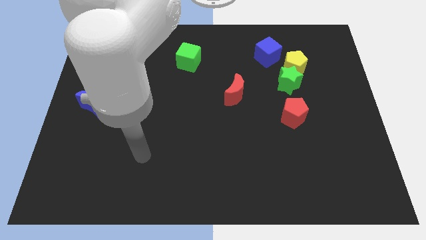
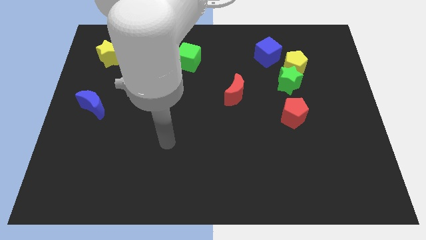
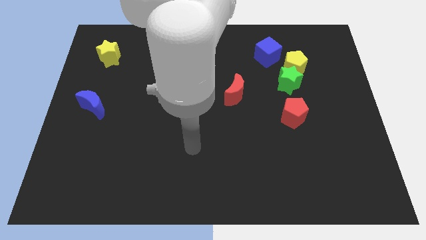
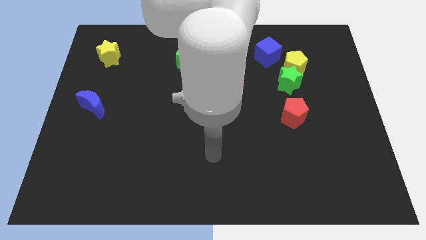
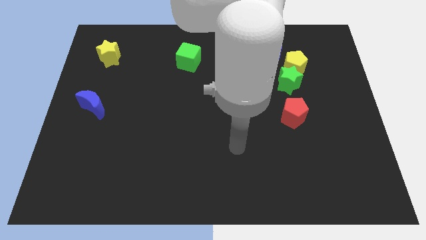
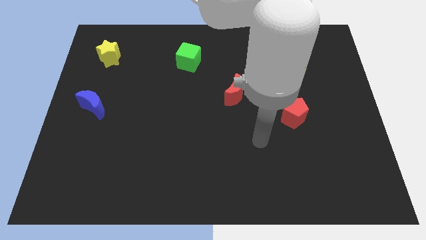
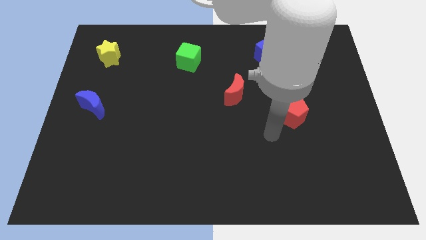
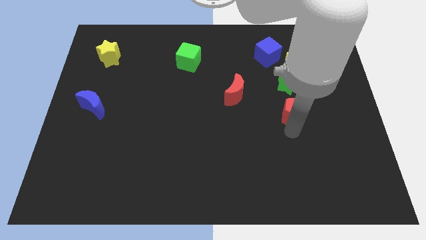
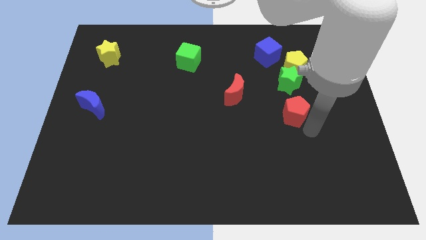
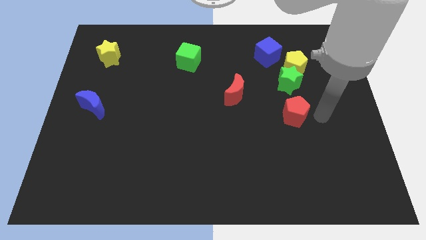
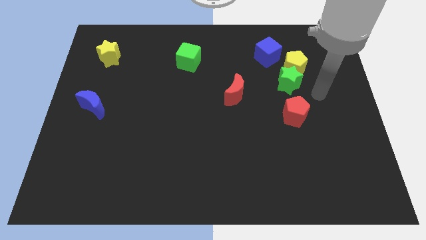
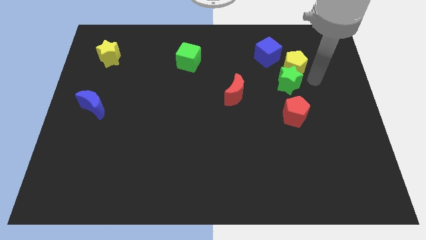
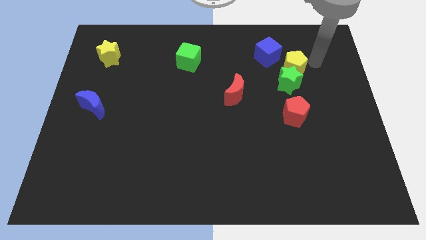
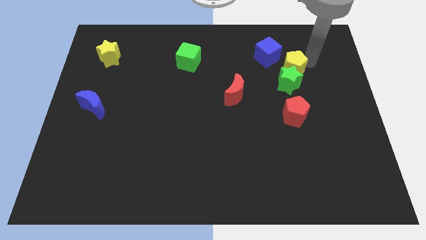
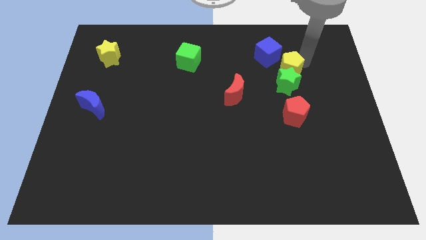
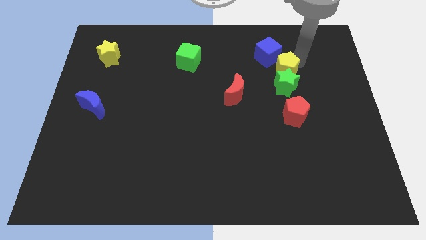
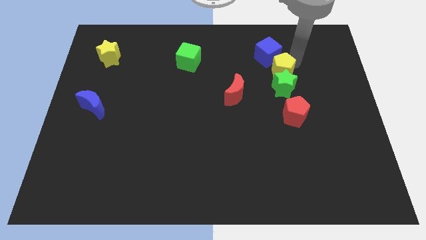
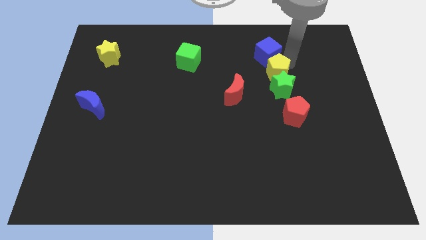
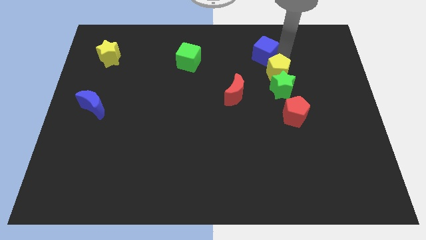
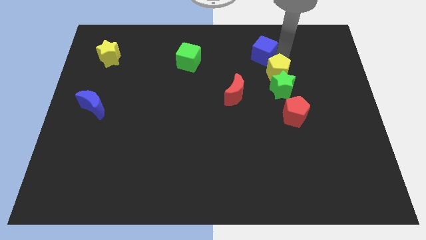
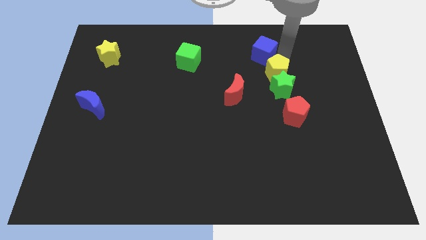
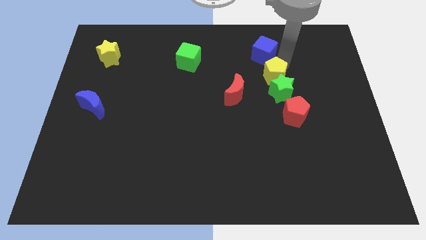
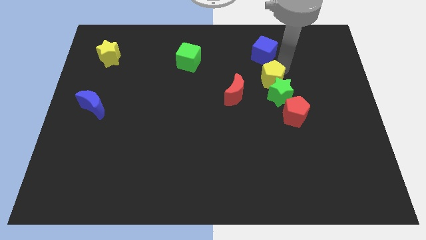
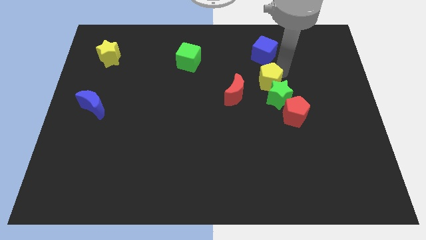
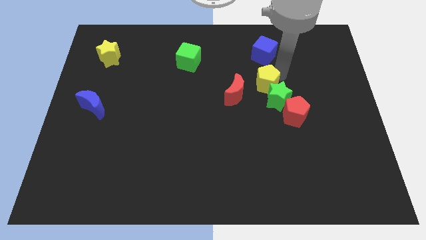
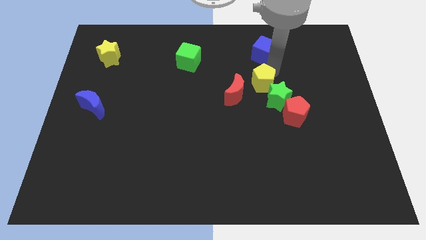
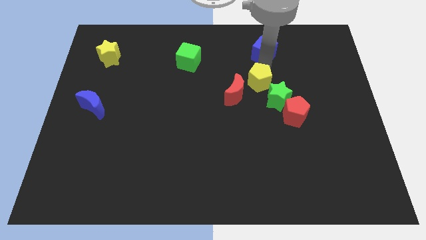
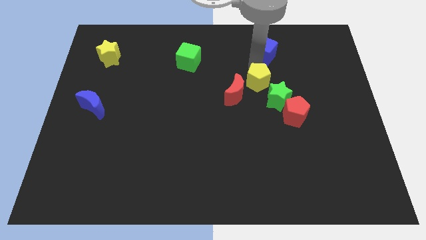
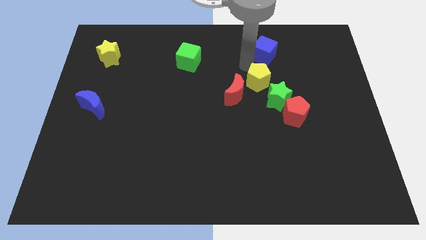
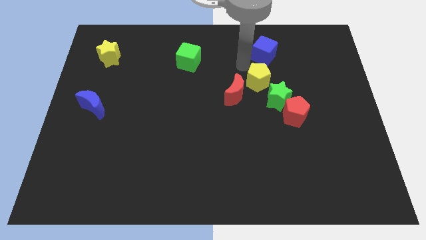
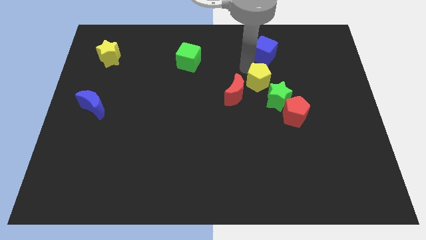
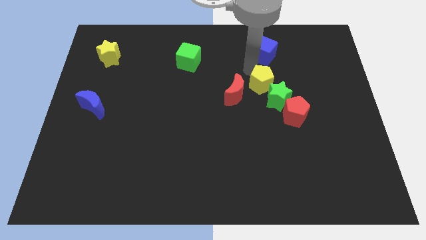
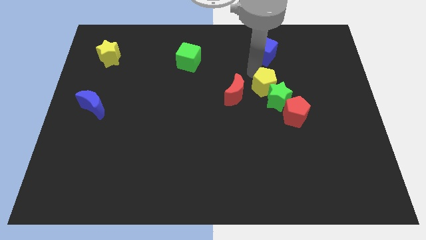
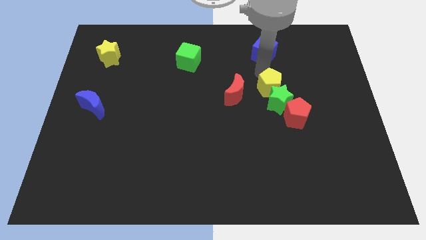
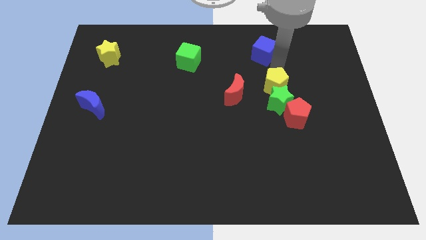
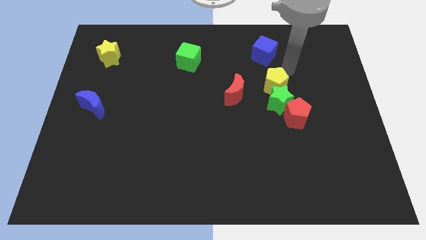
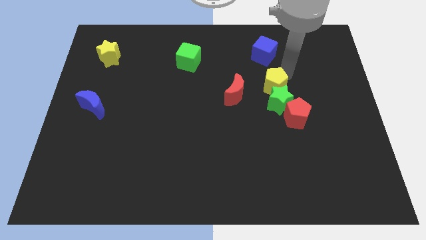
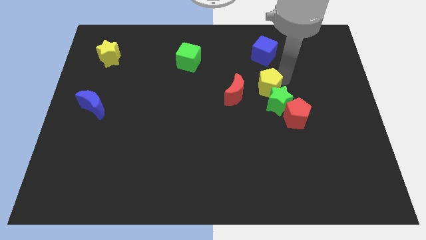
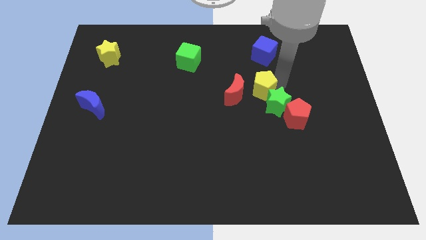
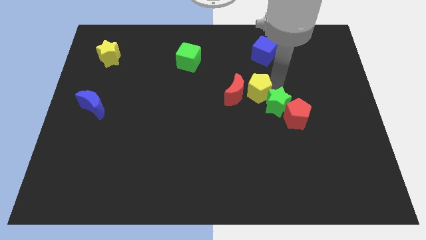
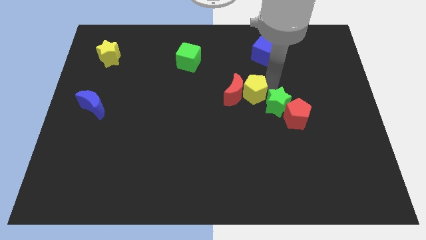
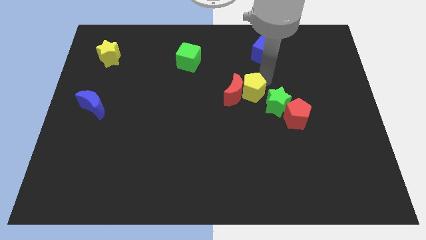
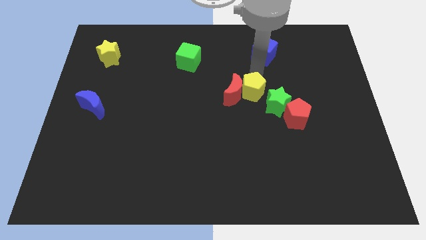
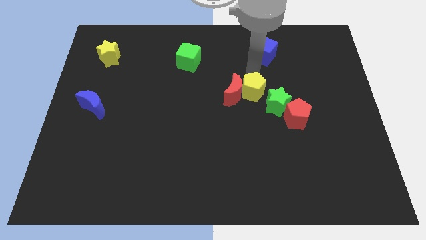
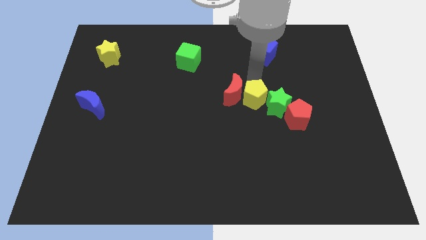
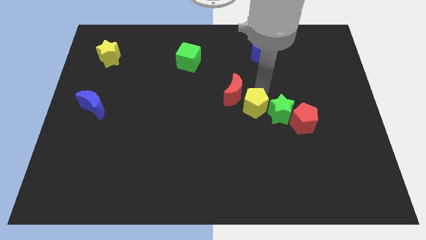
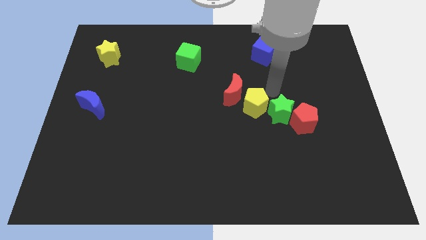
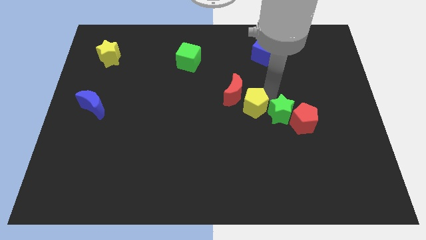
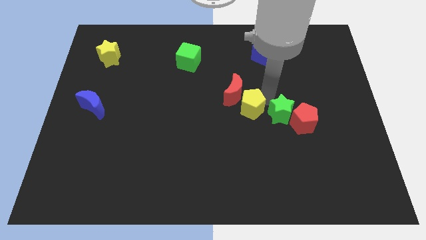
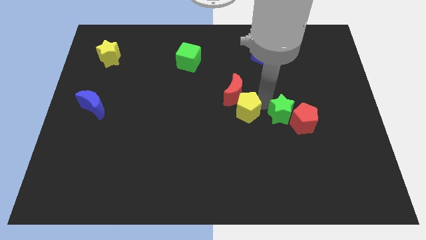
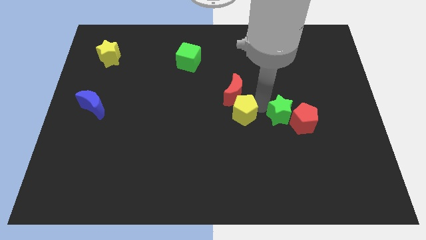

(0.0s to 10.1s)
push the yellow pentagon diagonally down and left

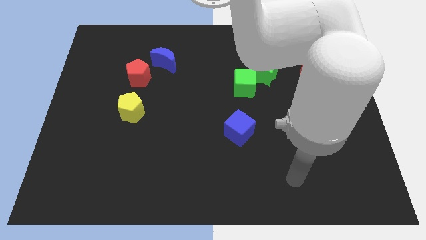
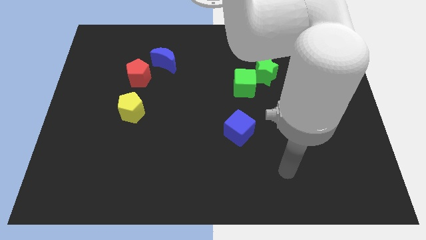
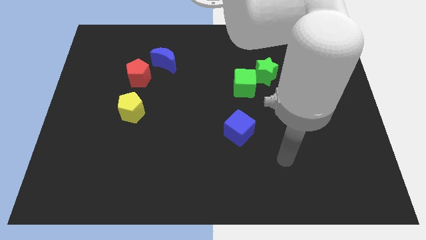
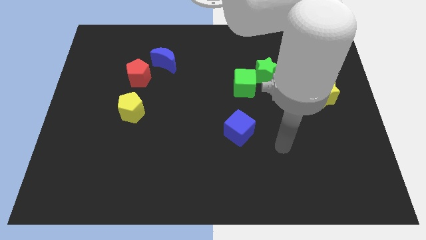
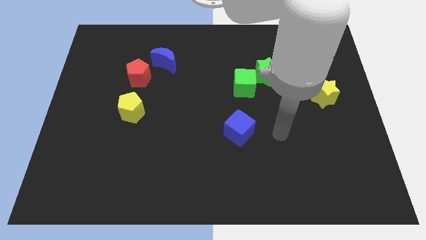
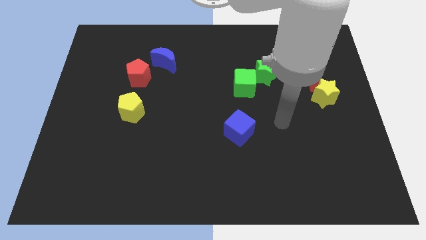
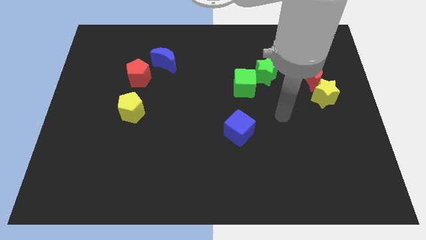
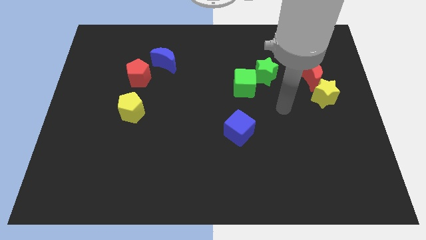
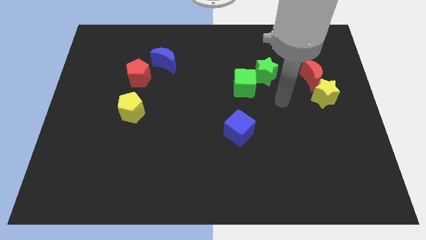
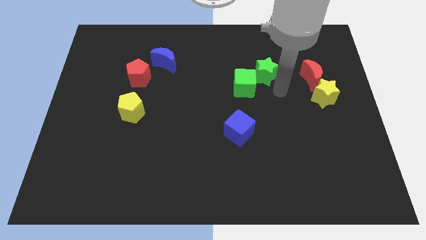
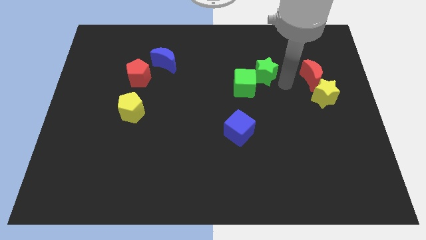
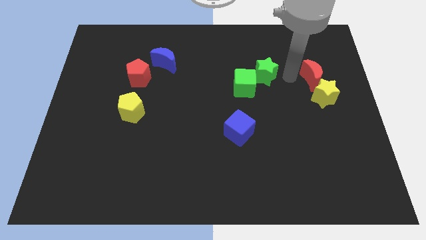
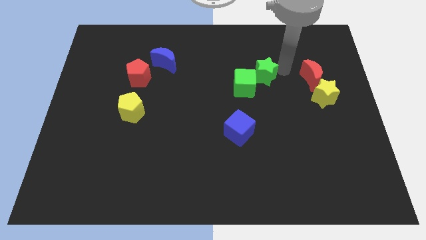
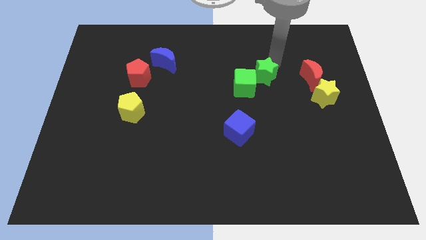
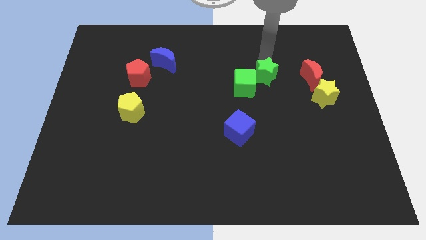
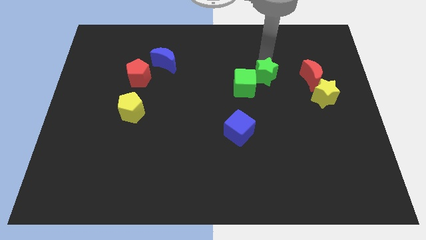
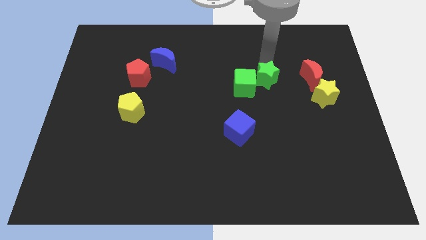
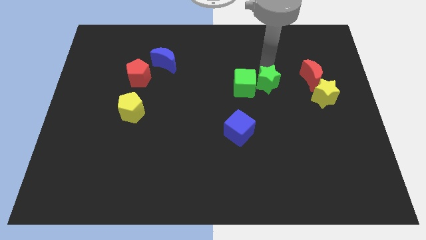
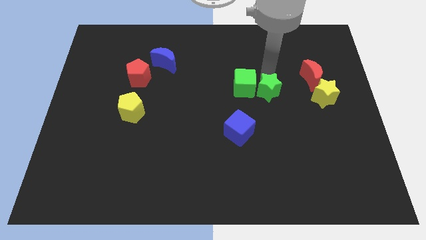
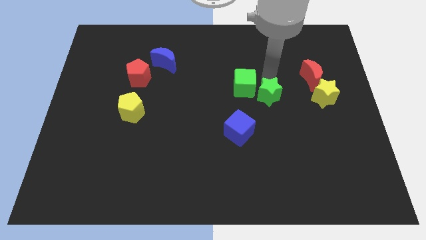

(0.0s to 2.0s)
move the green star downwards somewhat

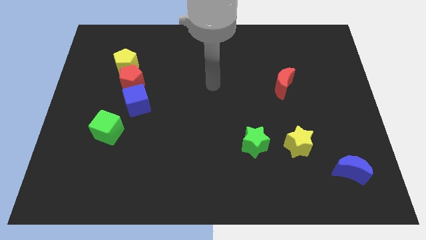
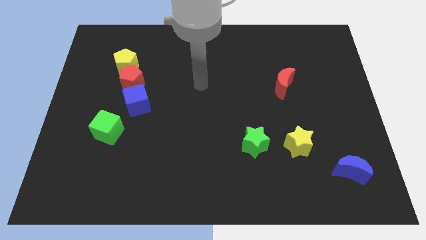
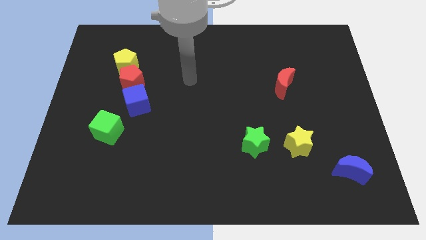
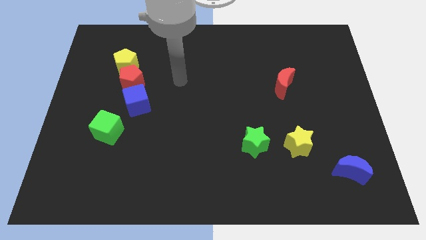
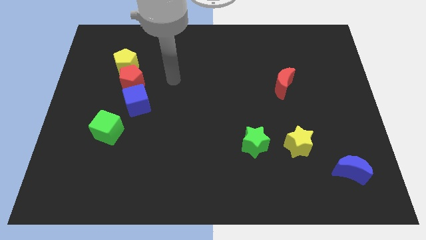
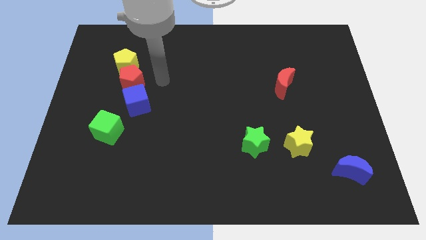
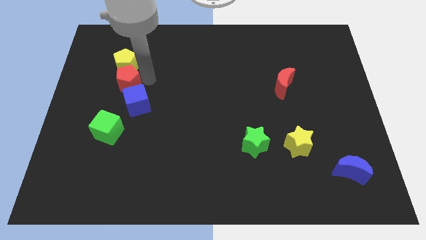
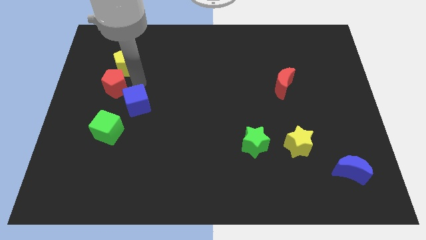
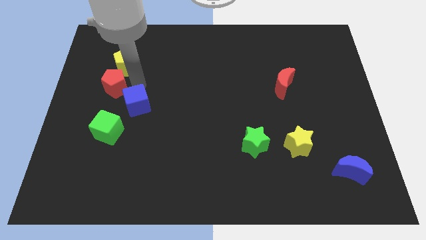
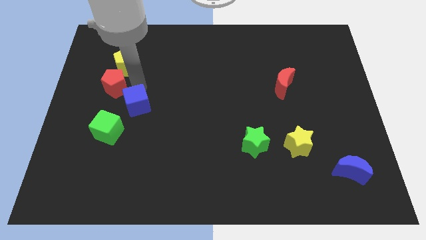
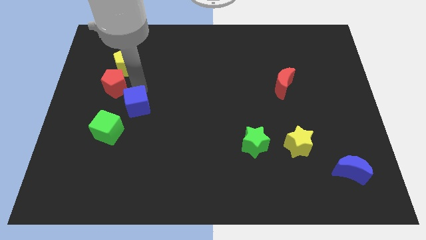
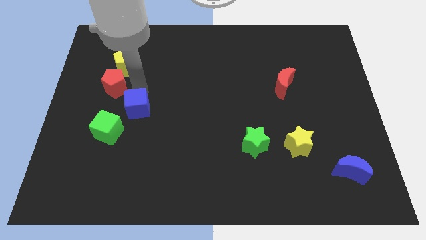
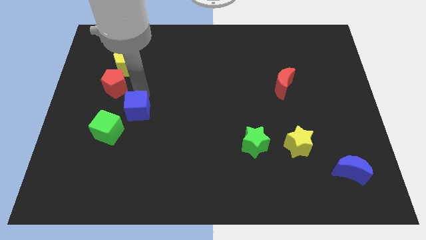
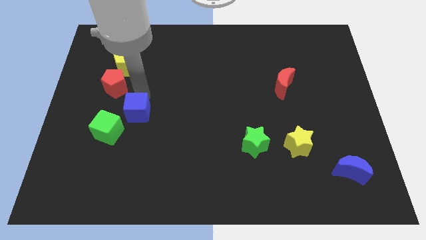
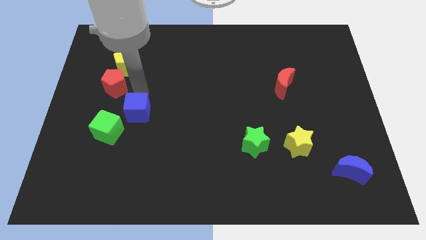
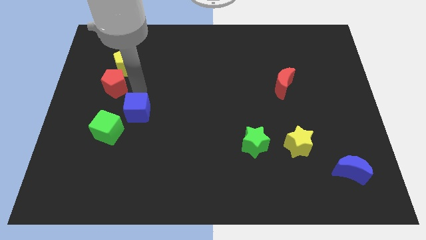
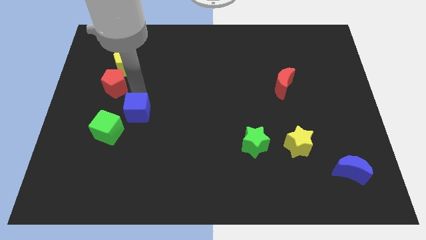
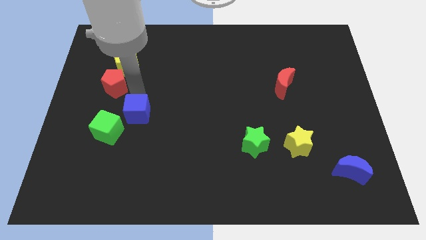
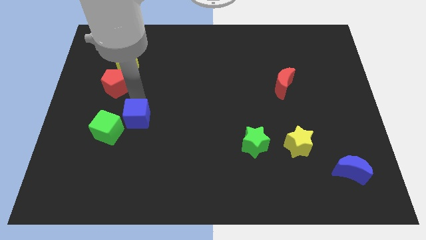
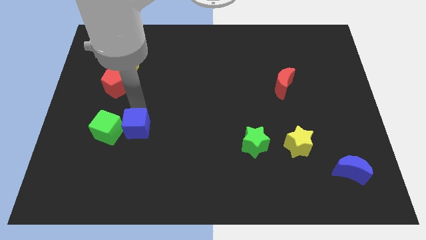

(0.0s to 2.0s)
move the blue cube somewhat downwards
